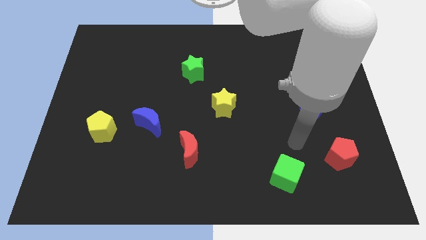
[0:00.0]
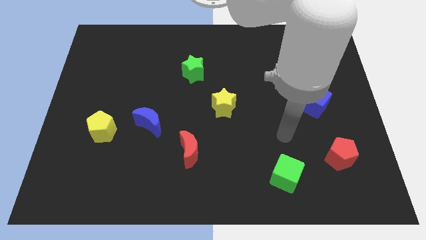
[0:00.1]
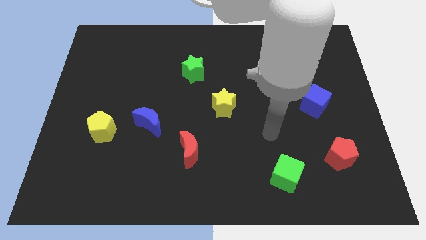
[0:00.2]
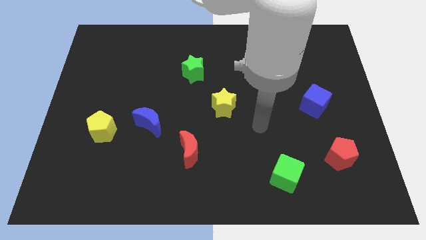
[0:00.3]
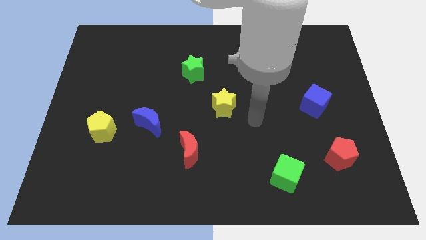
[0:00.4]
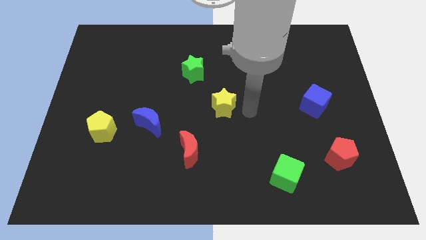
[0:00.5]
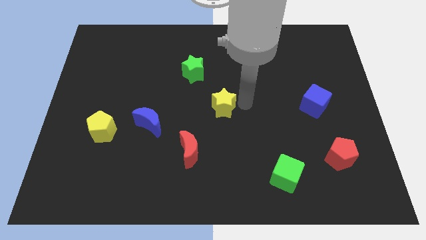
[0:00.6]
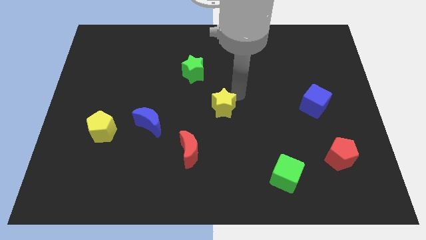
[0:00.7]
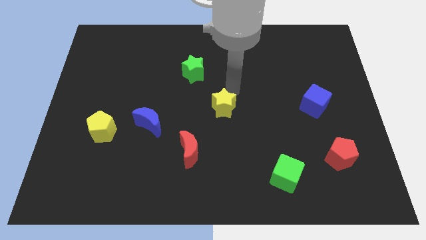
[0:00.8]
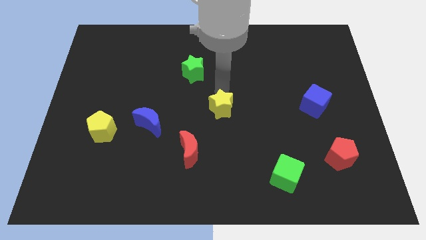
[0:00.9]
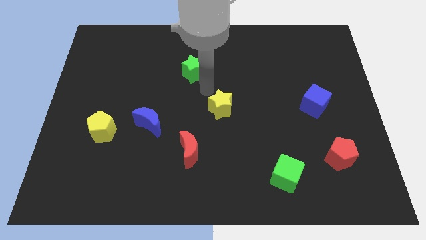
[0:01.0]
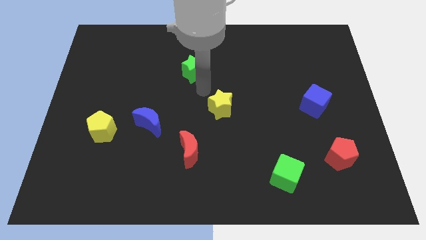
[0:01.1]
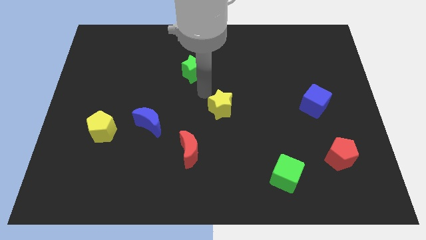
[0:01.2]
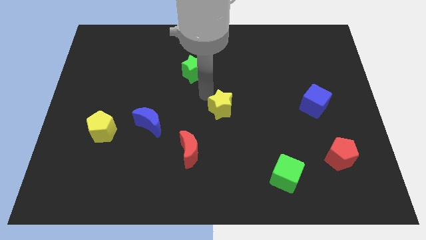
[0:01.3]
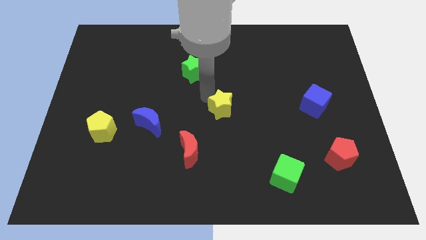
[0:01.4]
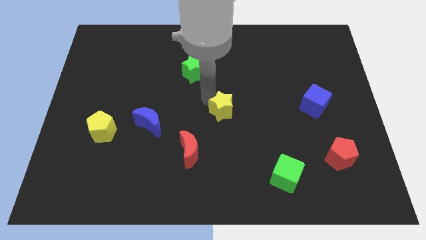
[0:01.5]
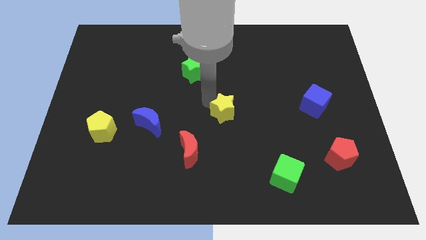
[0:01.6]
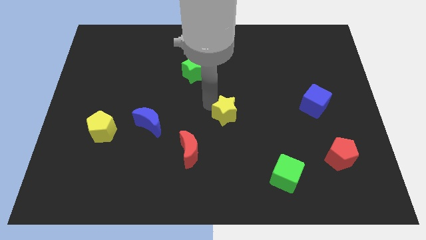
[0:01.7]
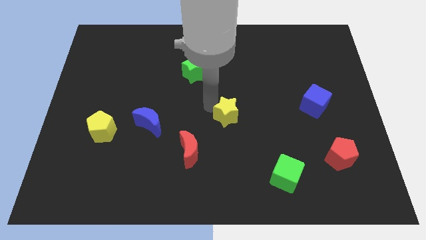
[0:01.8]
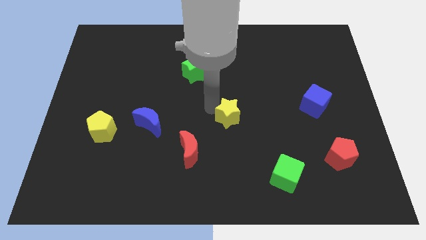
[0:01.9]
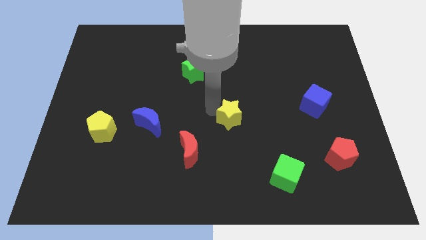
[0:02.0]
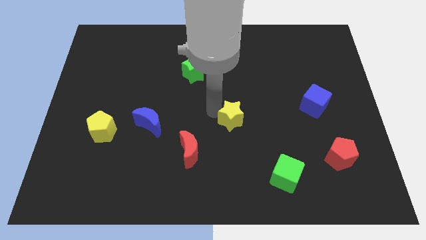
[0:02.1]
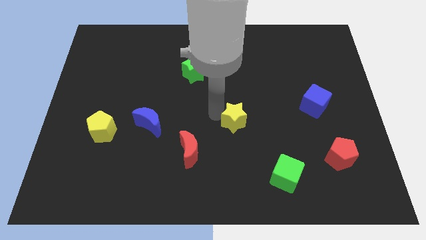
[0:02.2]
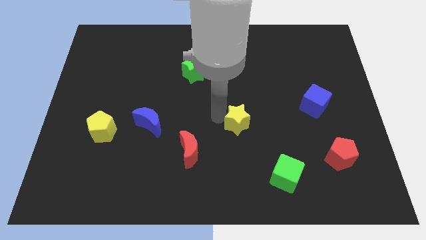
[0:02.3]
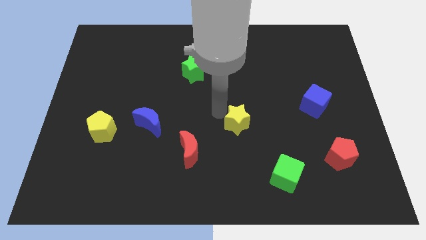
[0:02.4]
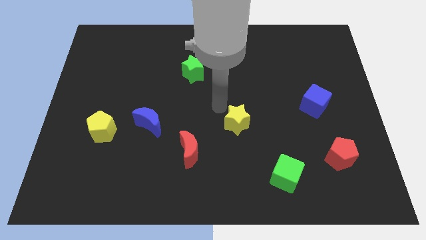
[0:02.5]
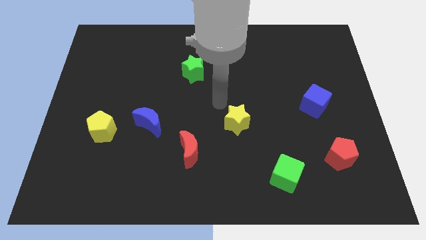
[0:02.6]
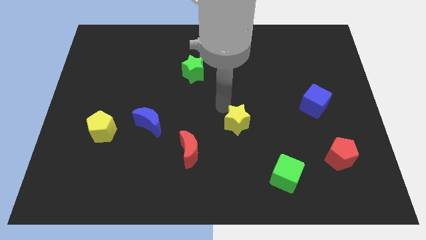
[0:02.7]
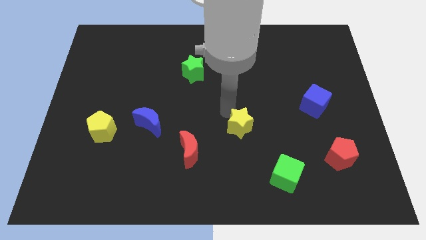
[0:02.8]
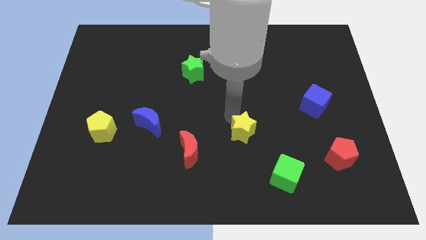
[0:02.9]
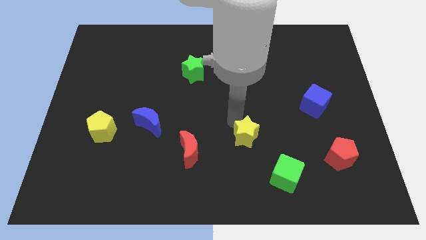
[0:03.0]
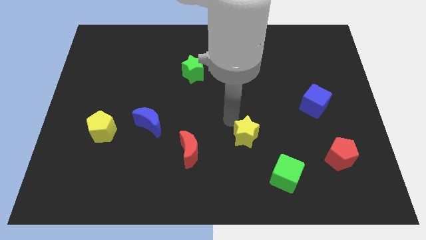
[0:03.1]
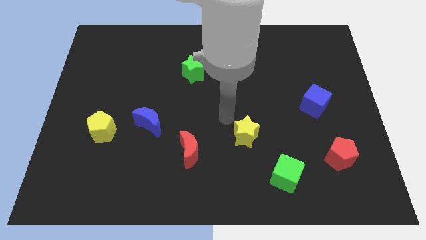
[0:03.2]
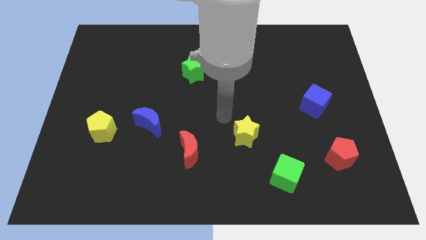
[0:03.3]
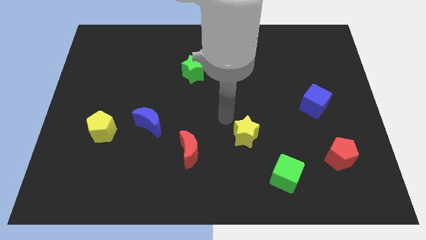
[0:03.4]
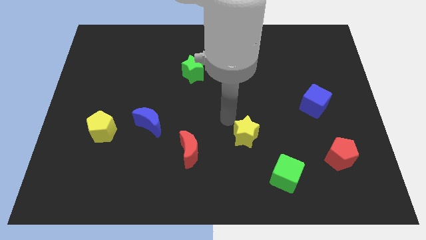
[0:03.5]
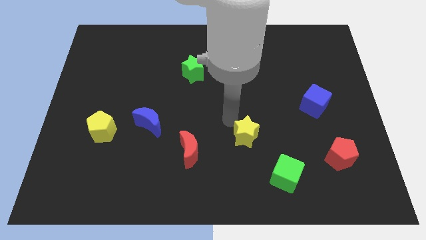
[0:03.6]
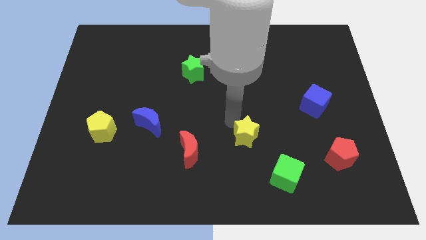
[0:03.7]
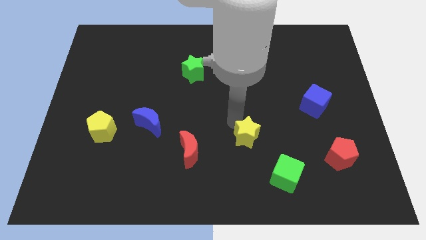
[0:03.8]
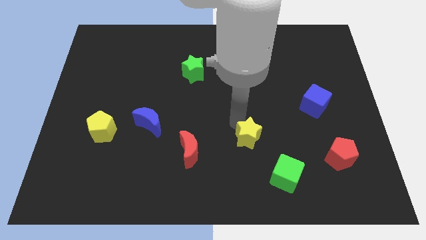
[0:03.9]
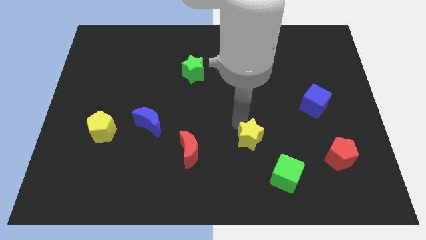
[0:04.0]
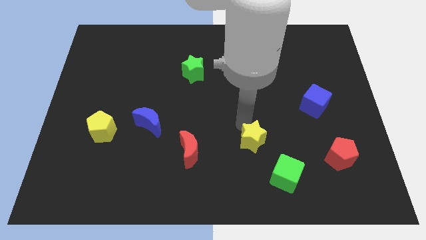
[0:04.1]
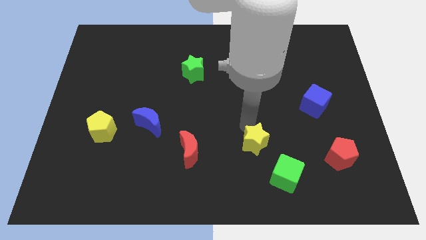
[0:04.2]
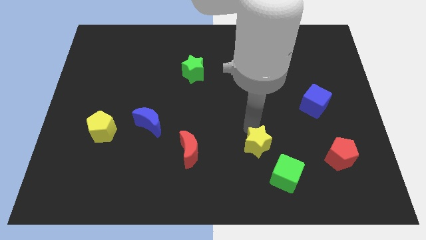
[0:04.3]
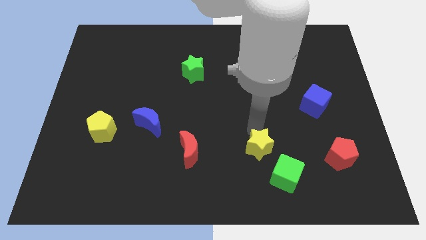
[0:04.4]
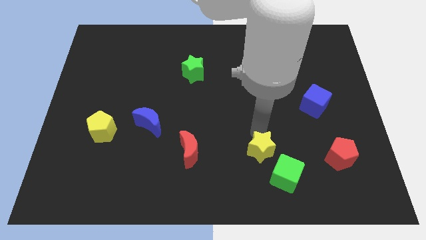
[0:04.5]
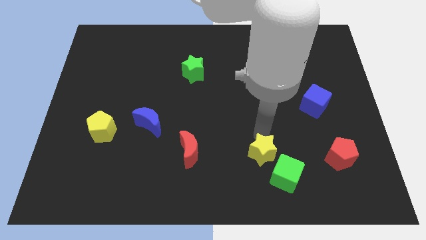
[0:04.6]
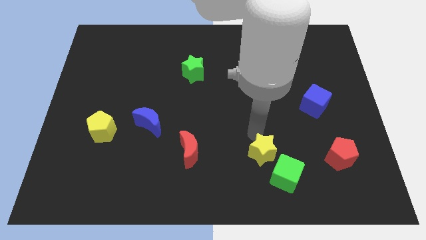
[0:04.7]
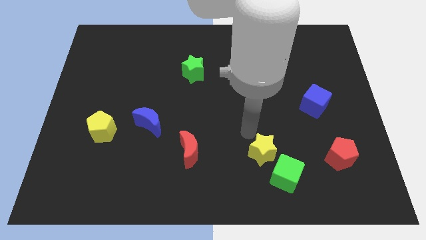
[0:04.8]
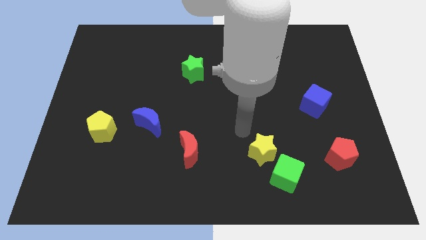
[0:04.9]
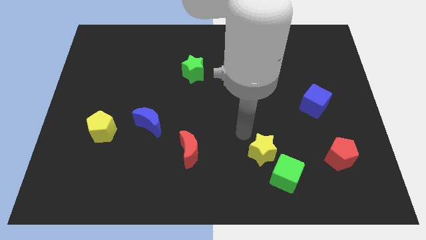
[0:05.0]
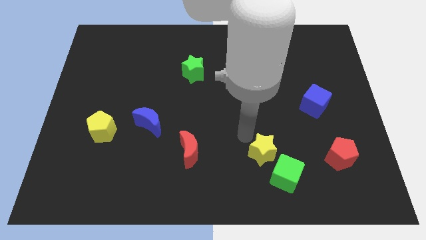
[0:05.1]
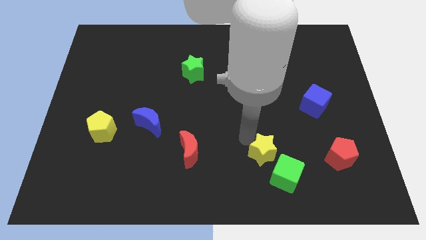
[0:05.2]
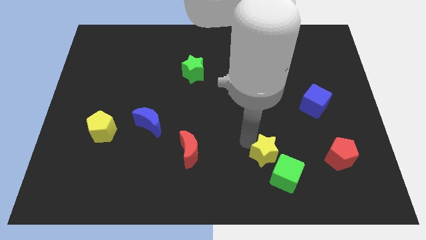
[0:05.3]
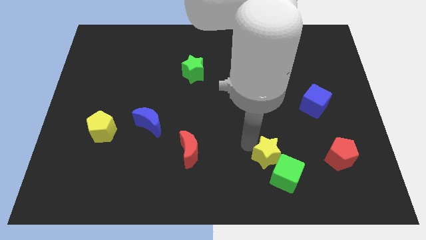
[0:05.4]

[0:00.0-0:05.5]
put the yellow star to the green cube

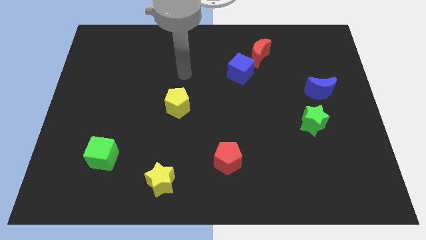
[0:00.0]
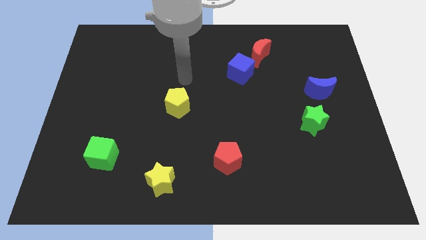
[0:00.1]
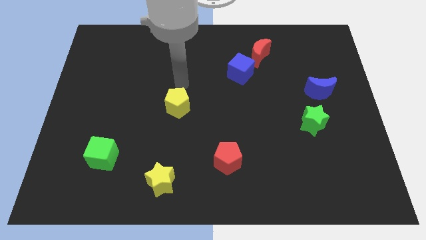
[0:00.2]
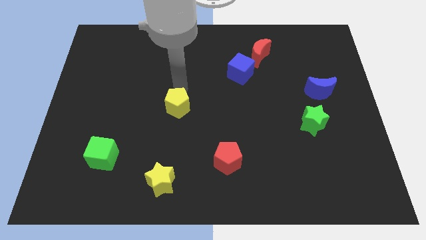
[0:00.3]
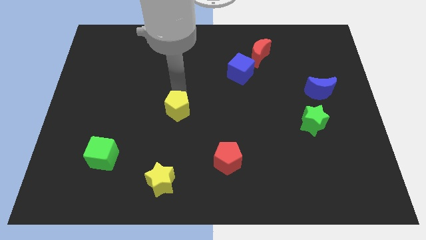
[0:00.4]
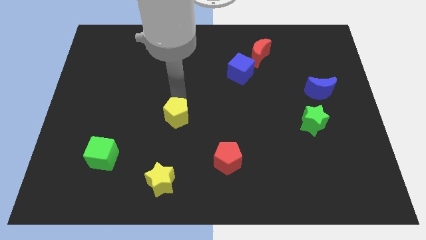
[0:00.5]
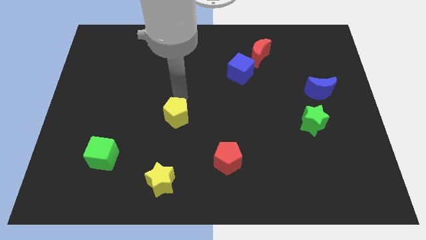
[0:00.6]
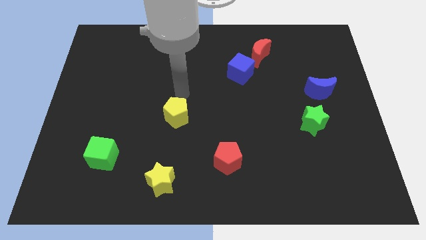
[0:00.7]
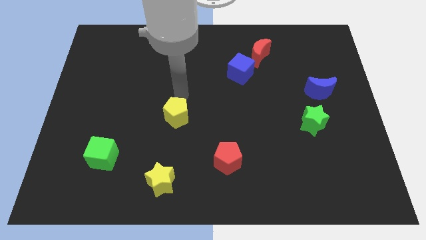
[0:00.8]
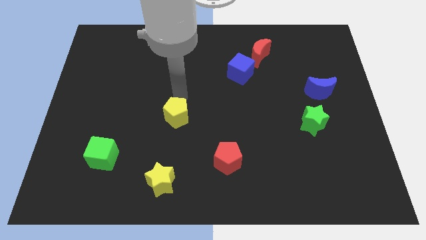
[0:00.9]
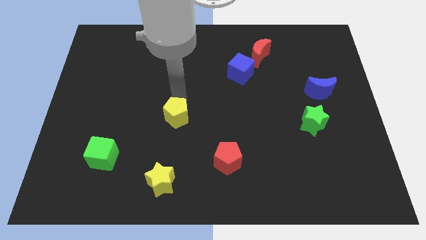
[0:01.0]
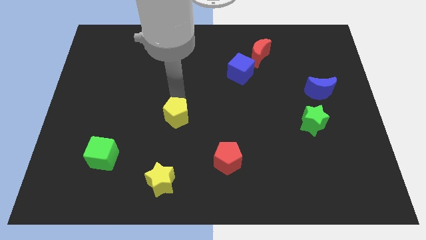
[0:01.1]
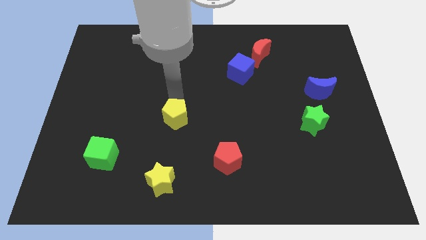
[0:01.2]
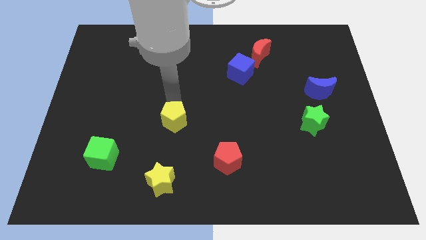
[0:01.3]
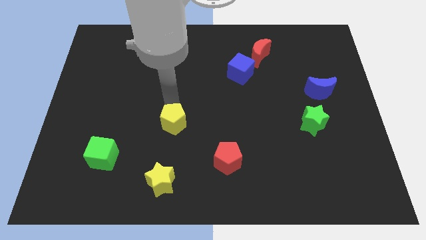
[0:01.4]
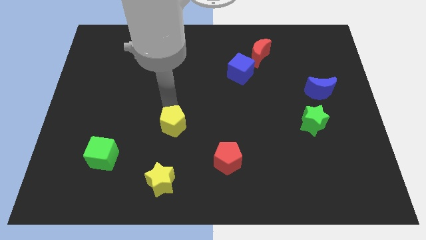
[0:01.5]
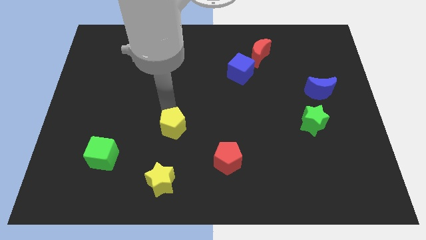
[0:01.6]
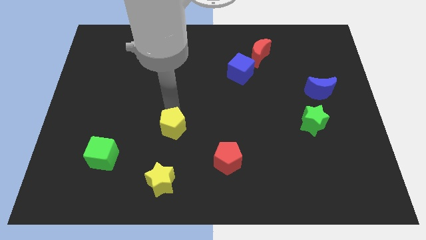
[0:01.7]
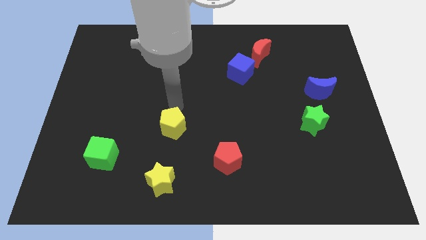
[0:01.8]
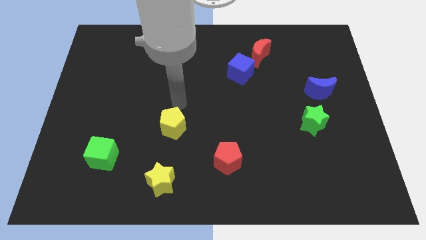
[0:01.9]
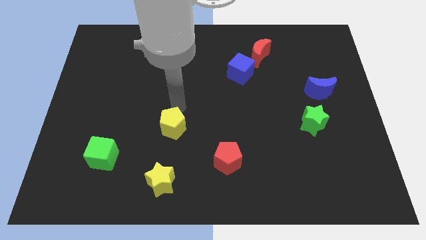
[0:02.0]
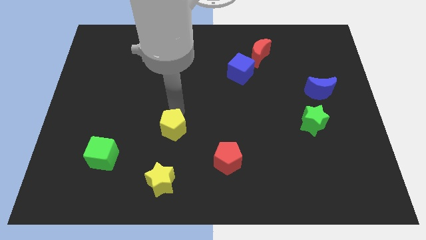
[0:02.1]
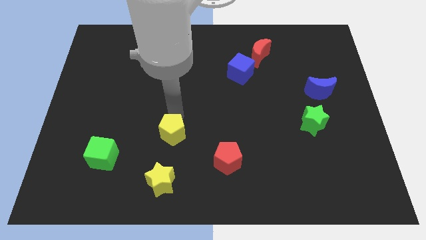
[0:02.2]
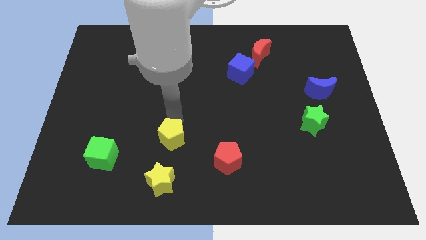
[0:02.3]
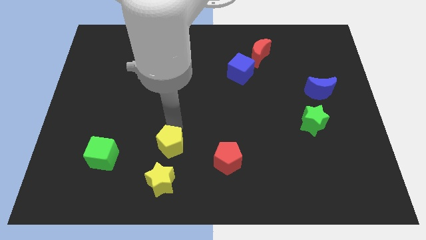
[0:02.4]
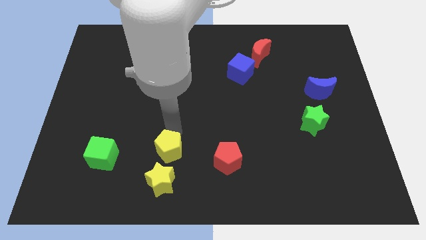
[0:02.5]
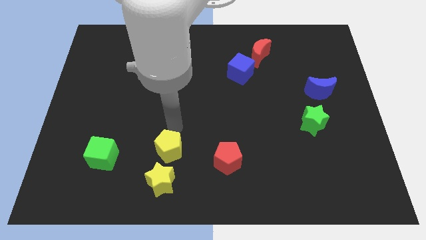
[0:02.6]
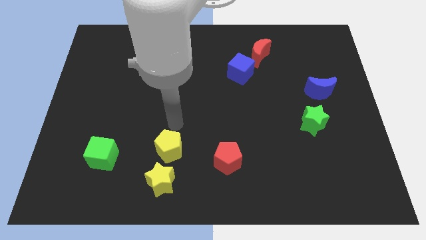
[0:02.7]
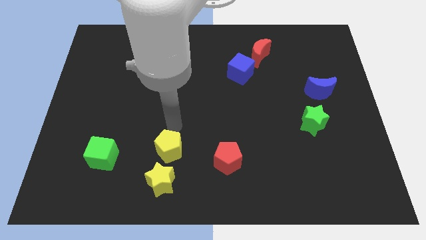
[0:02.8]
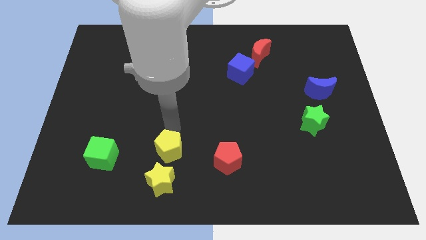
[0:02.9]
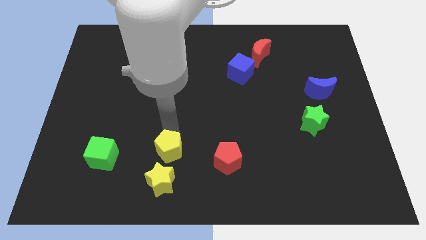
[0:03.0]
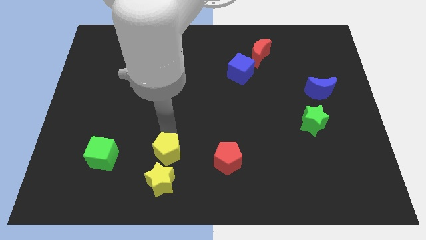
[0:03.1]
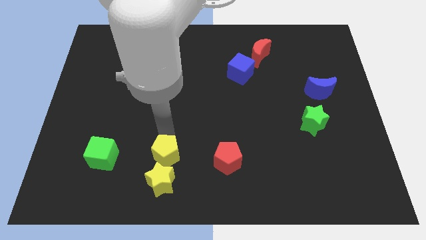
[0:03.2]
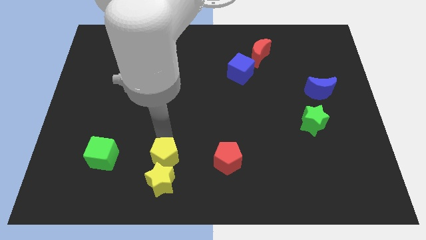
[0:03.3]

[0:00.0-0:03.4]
move the yellow pentagon close to the yellow star
